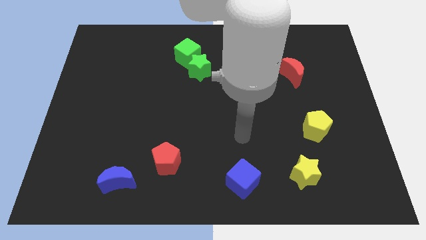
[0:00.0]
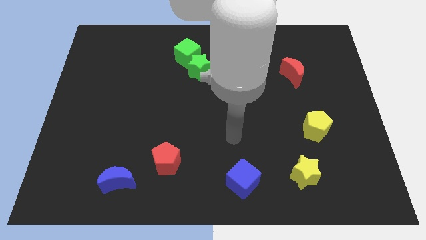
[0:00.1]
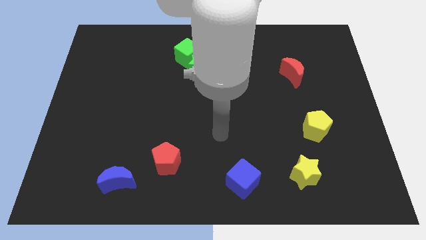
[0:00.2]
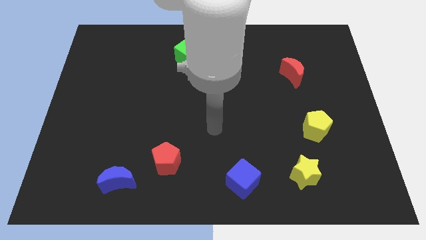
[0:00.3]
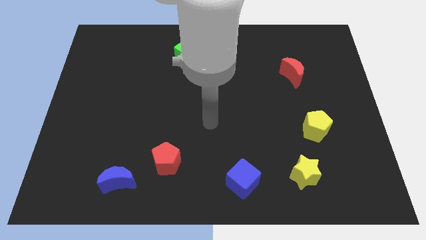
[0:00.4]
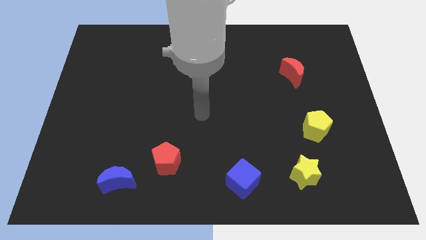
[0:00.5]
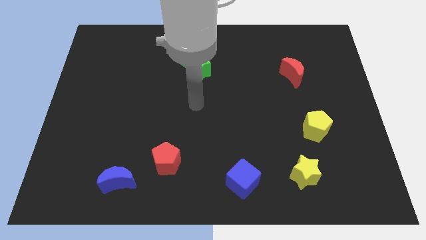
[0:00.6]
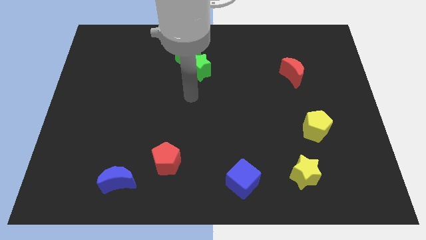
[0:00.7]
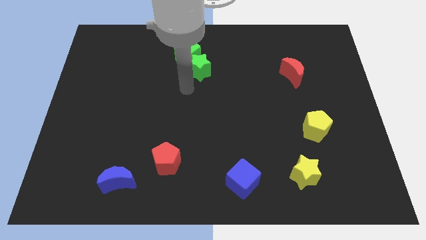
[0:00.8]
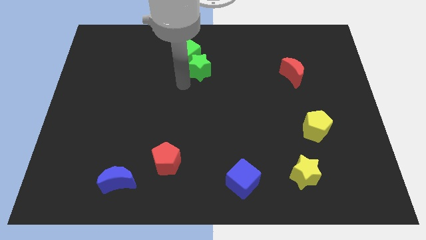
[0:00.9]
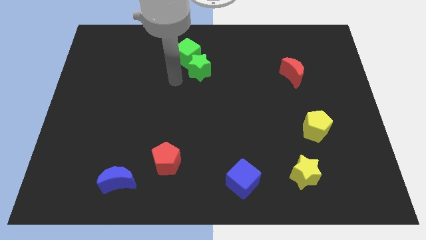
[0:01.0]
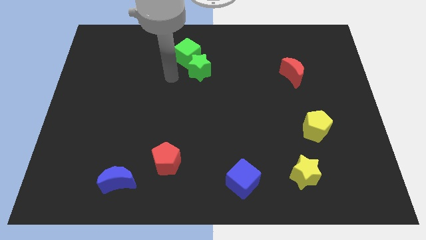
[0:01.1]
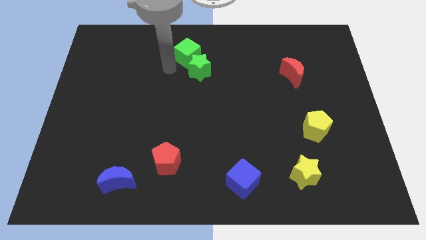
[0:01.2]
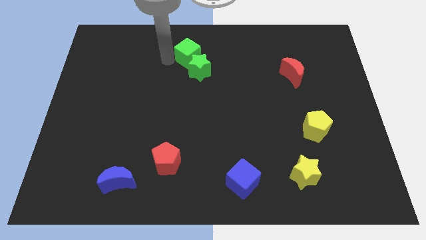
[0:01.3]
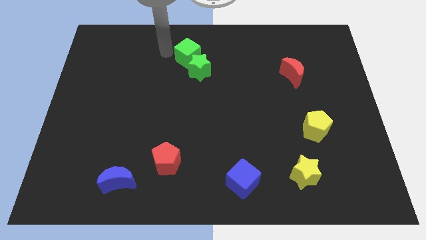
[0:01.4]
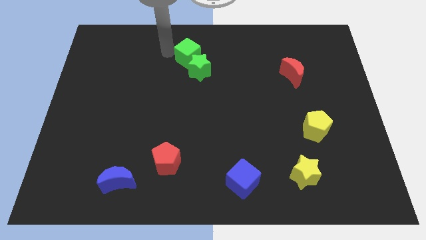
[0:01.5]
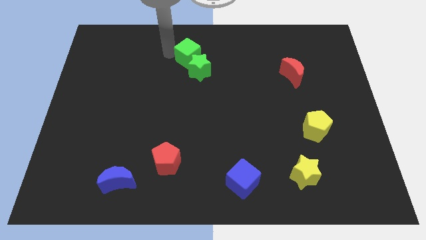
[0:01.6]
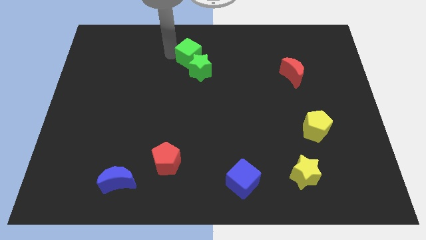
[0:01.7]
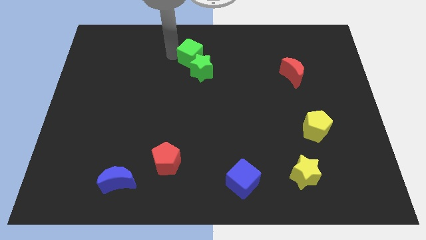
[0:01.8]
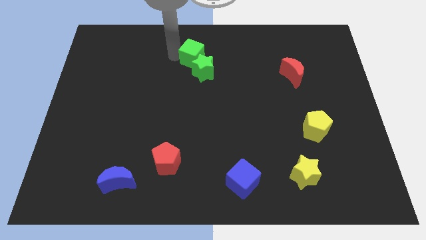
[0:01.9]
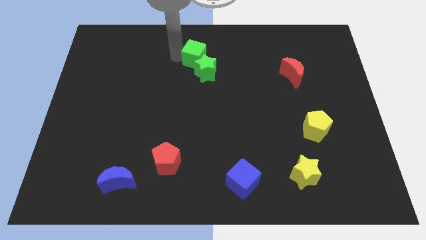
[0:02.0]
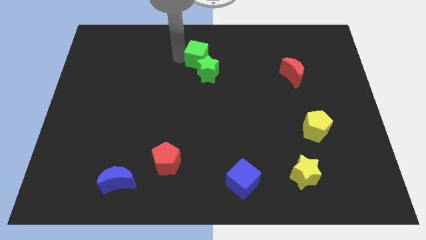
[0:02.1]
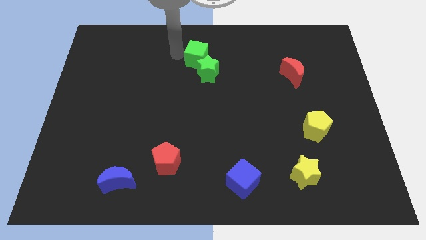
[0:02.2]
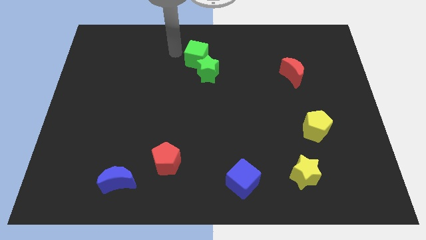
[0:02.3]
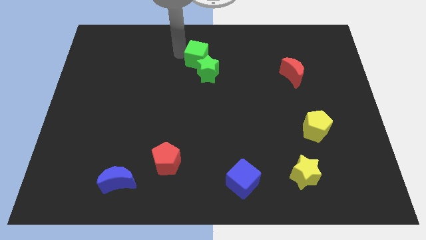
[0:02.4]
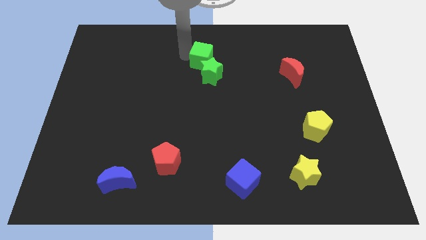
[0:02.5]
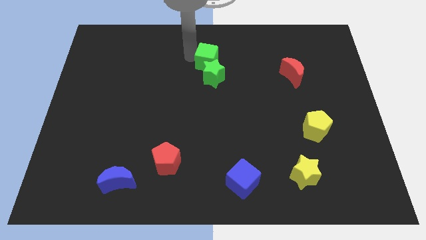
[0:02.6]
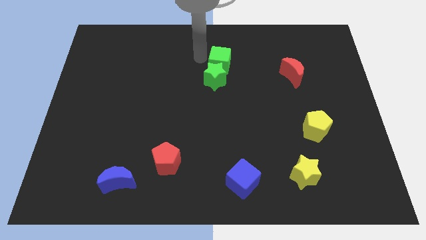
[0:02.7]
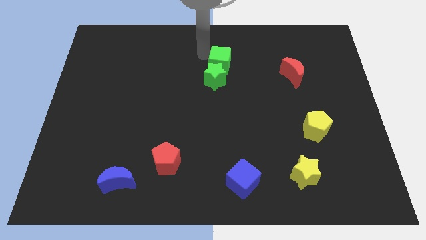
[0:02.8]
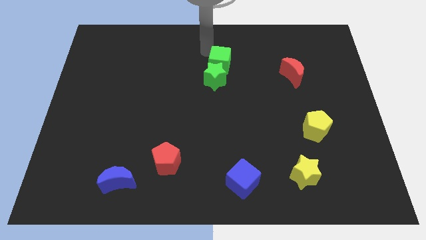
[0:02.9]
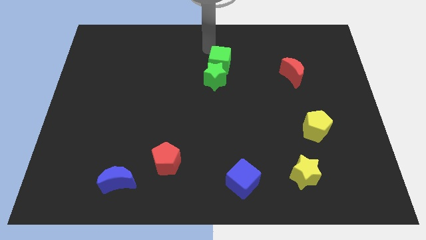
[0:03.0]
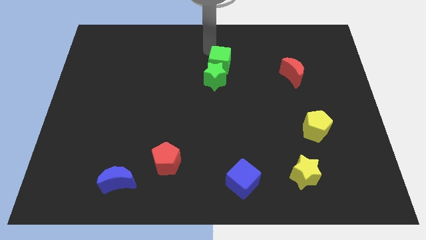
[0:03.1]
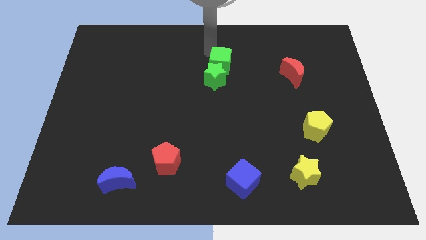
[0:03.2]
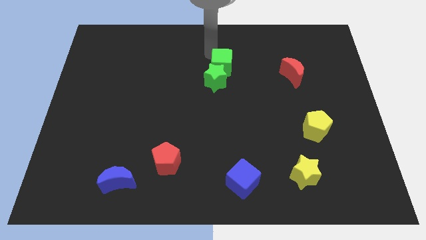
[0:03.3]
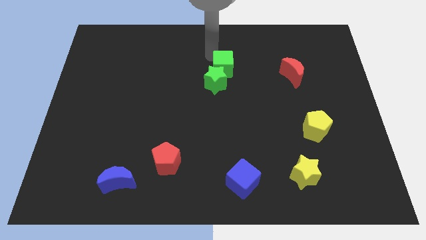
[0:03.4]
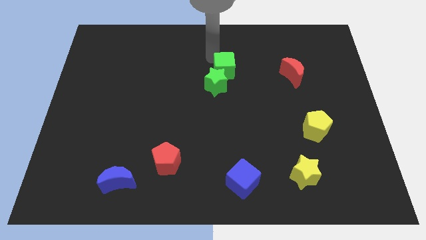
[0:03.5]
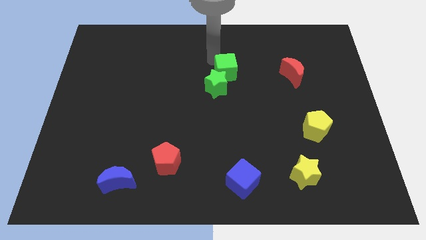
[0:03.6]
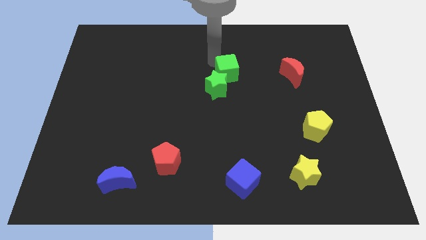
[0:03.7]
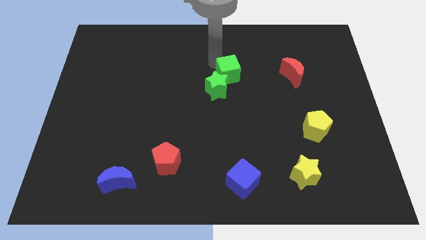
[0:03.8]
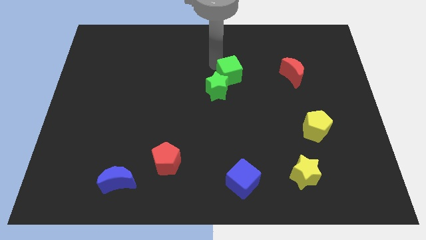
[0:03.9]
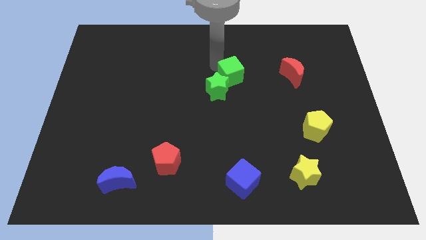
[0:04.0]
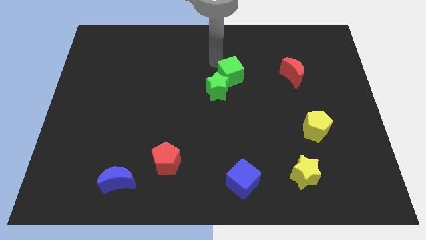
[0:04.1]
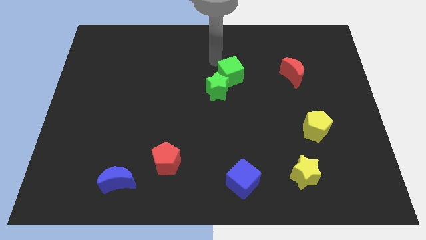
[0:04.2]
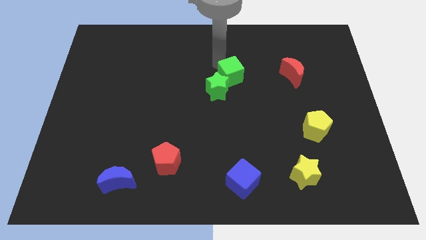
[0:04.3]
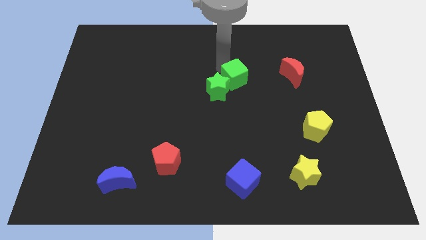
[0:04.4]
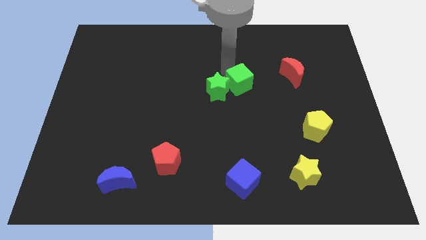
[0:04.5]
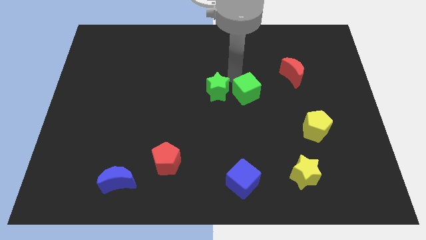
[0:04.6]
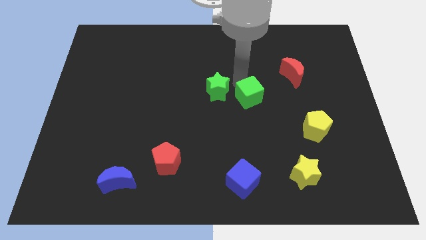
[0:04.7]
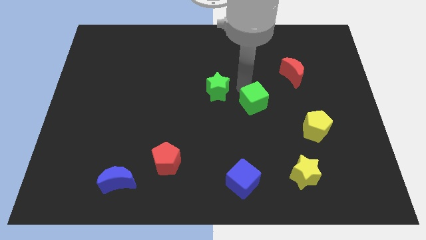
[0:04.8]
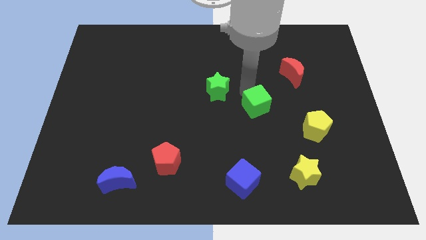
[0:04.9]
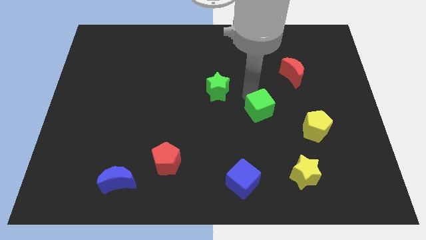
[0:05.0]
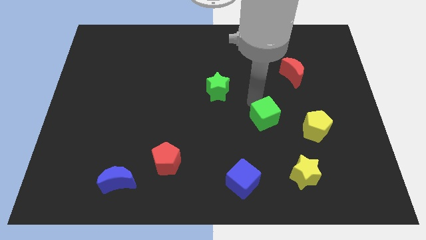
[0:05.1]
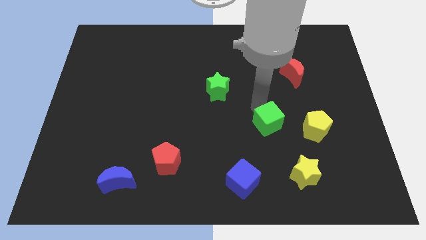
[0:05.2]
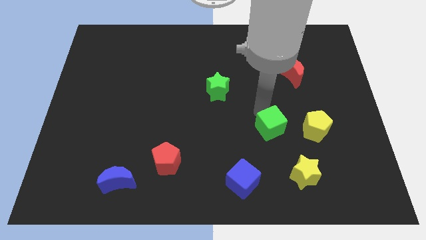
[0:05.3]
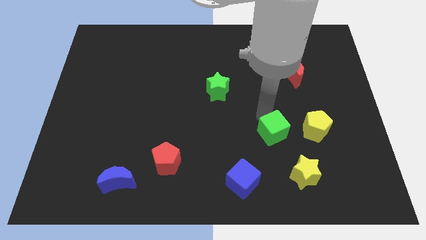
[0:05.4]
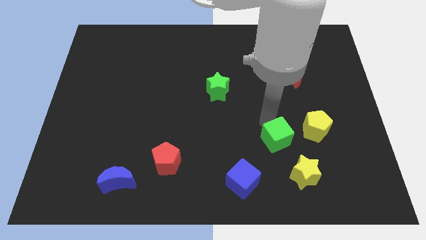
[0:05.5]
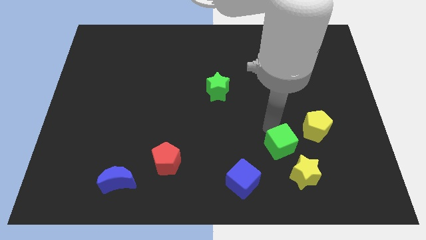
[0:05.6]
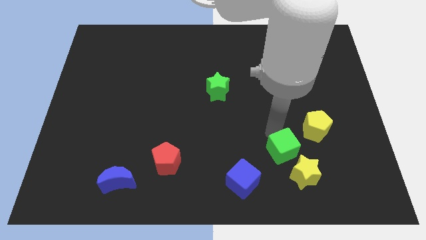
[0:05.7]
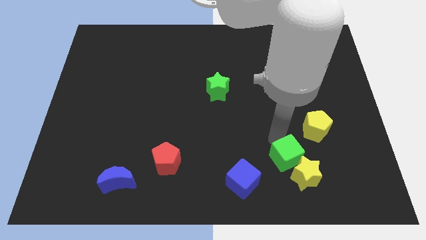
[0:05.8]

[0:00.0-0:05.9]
move the green cube next to the yellow star

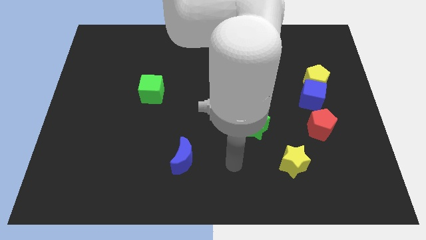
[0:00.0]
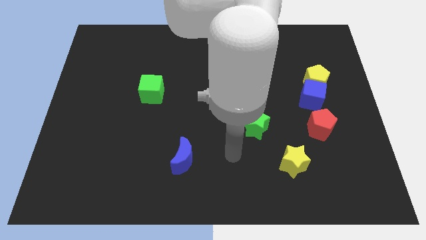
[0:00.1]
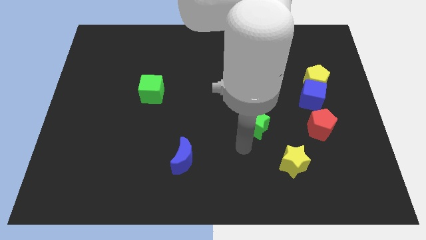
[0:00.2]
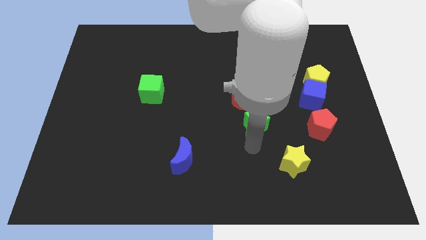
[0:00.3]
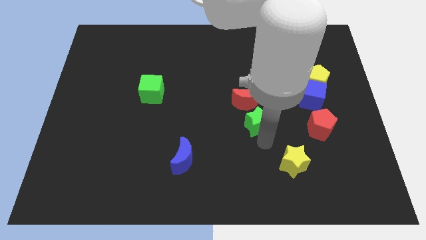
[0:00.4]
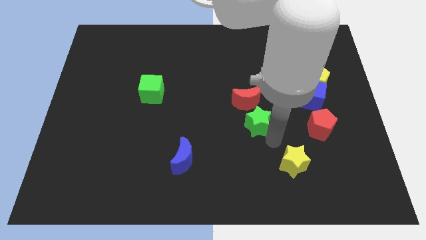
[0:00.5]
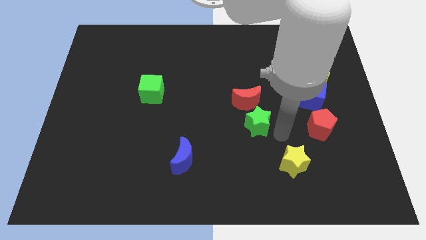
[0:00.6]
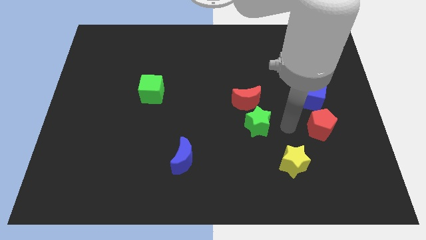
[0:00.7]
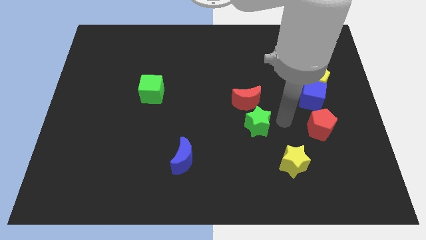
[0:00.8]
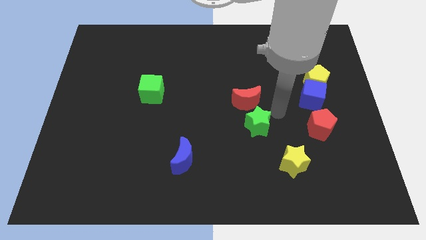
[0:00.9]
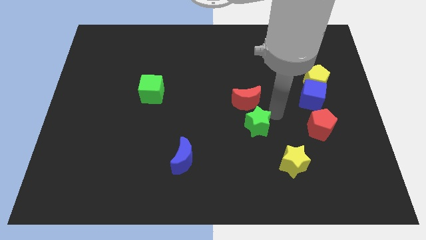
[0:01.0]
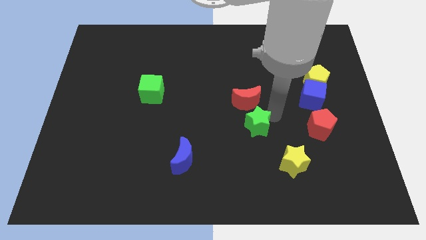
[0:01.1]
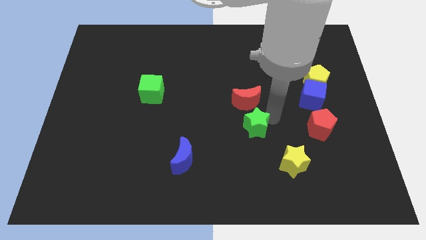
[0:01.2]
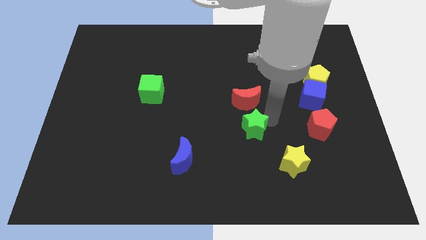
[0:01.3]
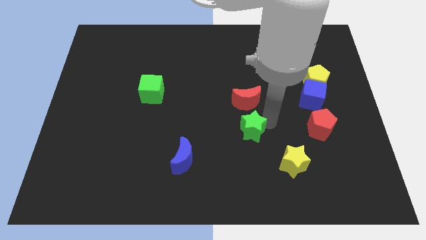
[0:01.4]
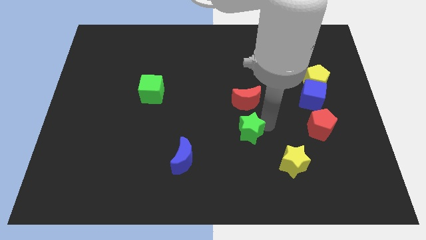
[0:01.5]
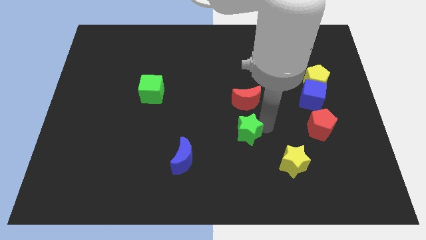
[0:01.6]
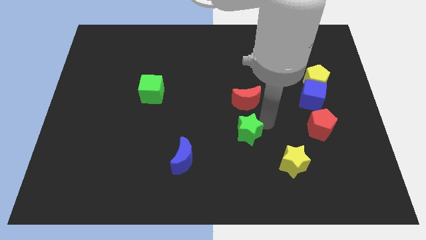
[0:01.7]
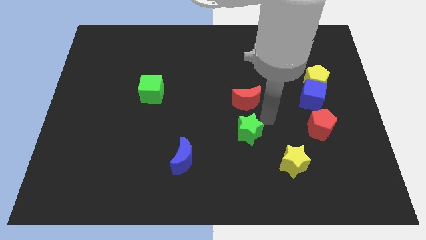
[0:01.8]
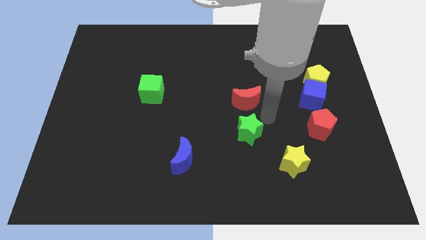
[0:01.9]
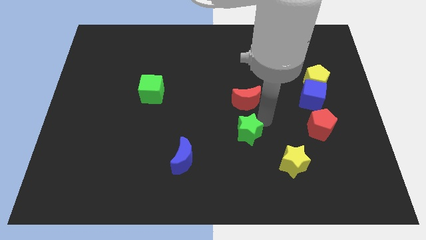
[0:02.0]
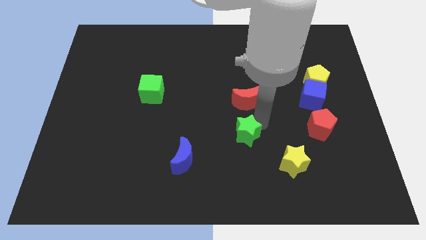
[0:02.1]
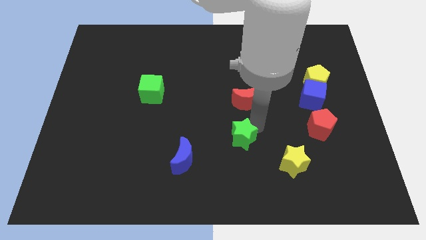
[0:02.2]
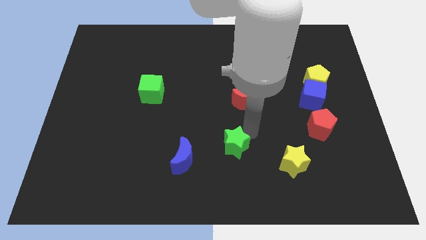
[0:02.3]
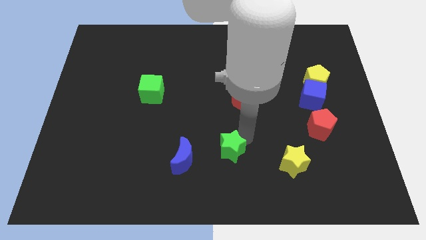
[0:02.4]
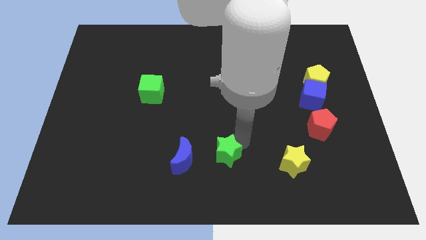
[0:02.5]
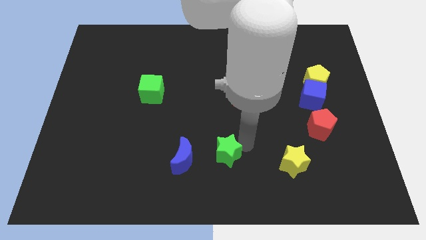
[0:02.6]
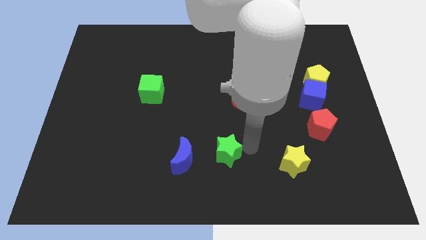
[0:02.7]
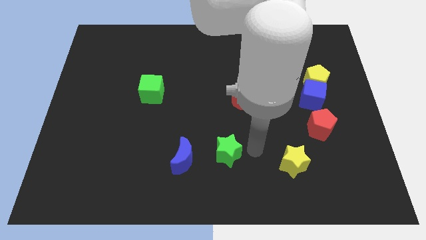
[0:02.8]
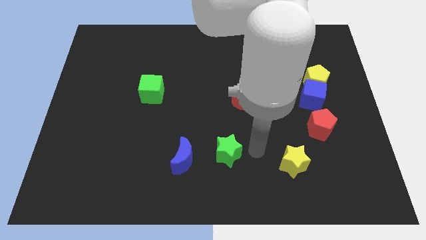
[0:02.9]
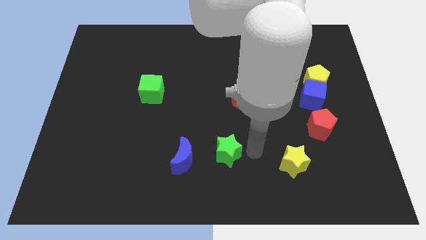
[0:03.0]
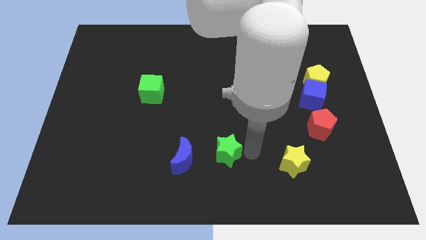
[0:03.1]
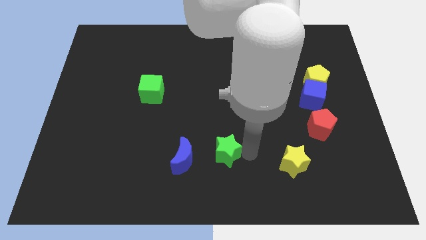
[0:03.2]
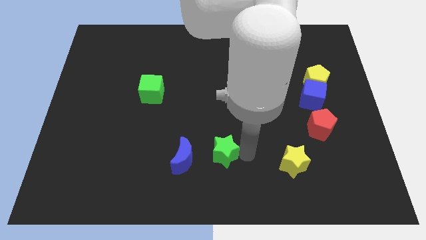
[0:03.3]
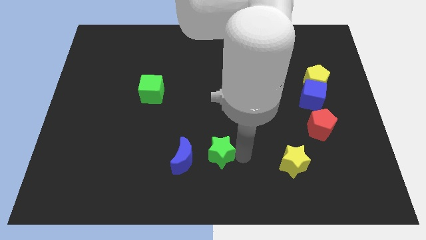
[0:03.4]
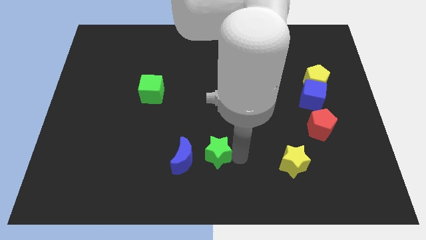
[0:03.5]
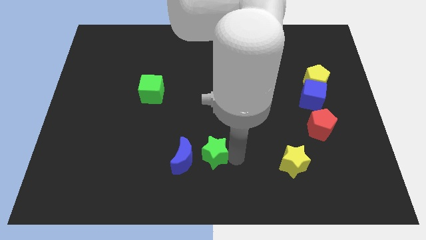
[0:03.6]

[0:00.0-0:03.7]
push the green star to the blue moon
